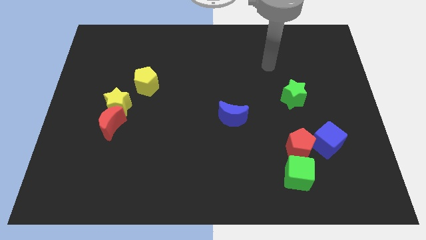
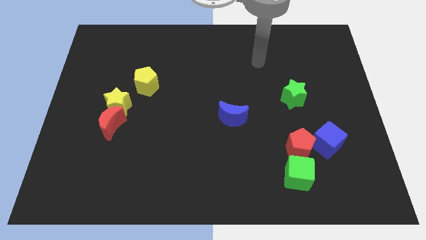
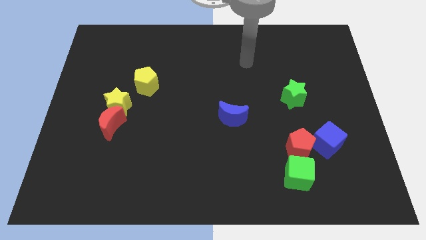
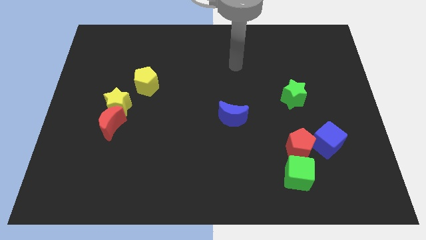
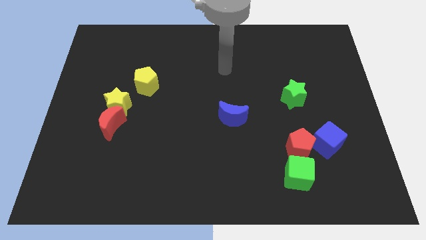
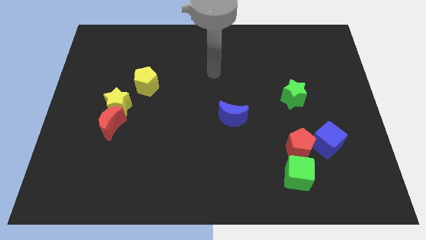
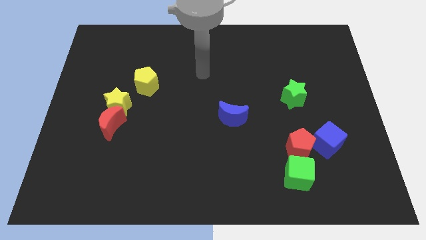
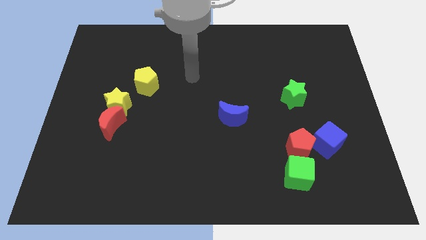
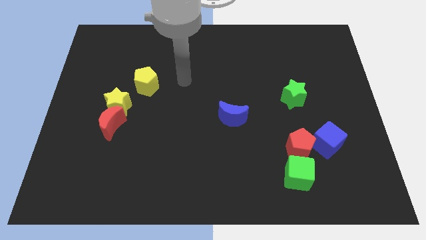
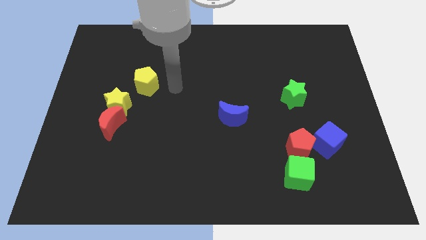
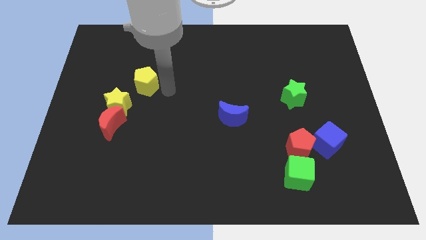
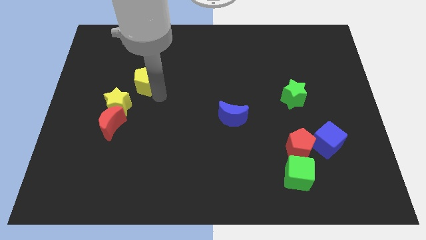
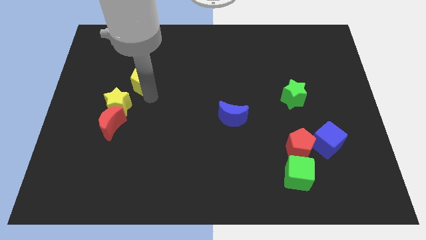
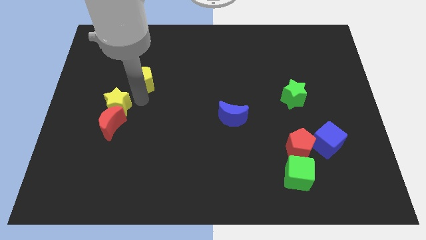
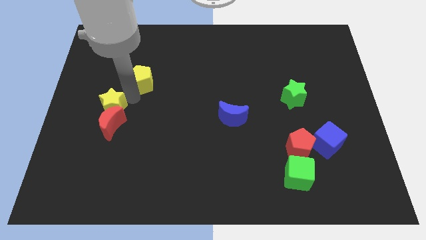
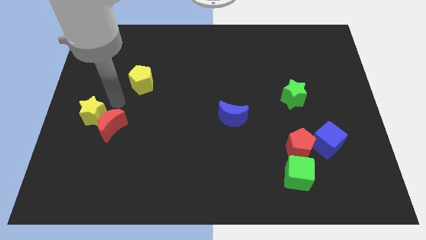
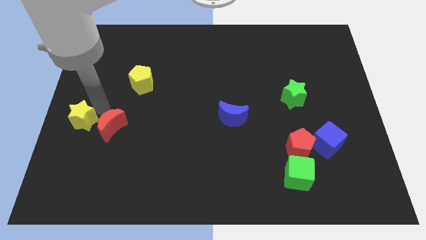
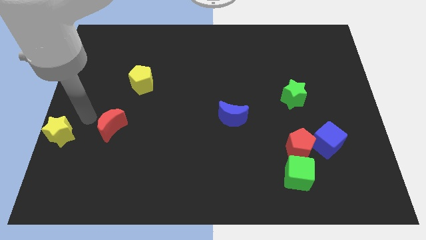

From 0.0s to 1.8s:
move the red moon away from the yellow star

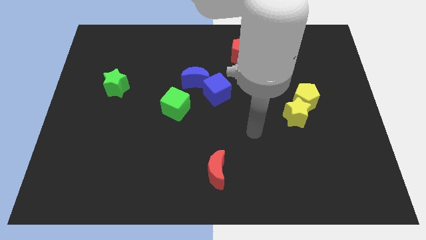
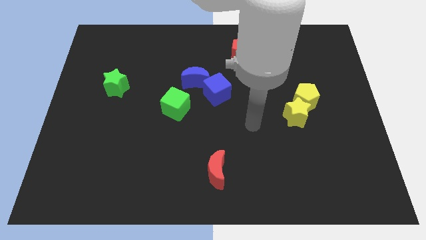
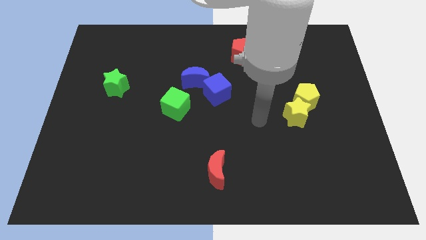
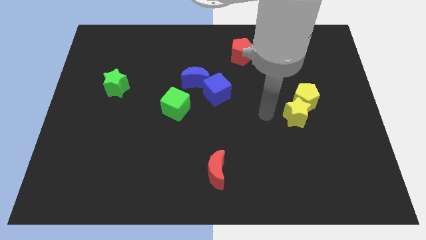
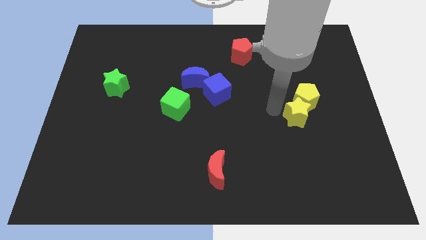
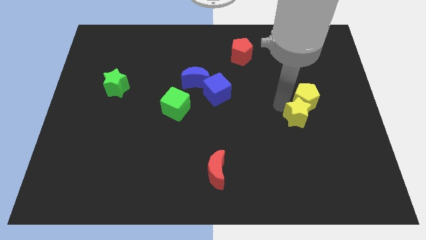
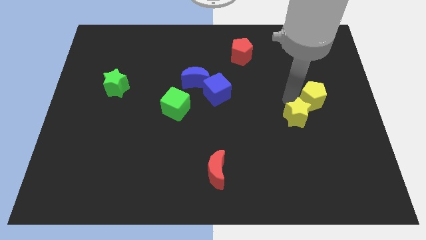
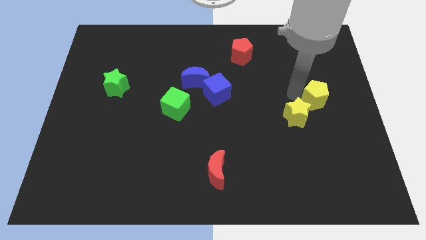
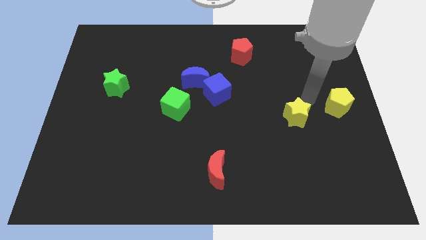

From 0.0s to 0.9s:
separate the yellow star from the yellow pentagon

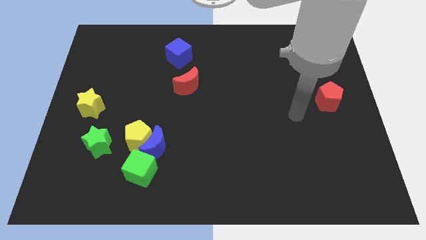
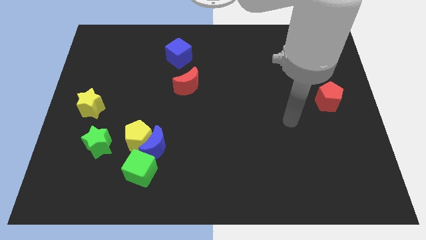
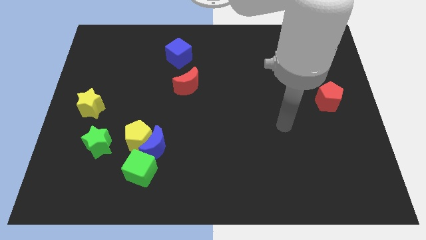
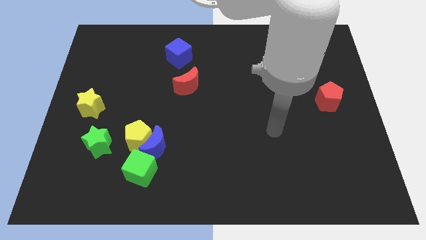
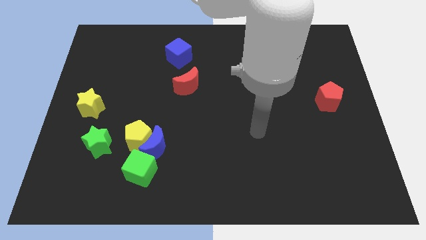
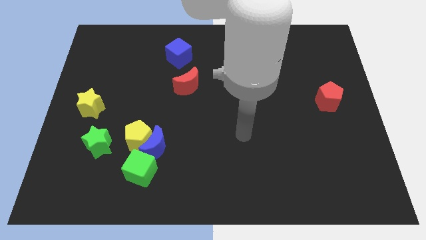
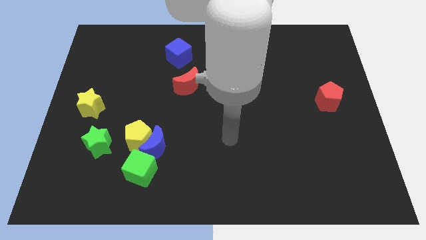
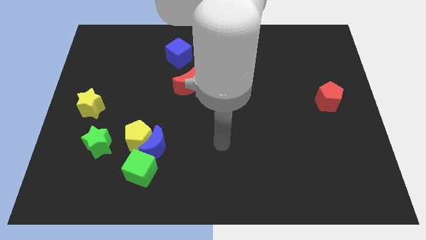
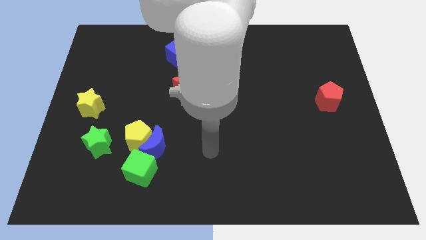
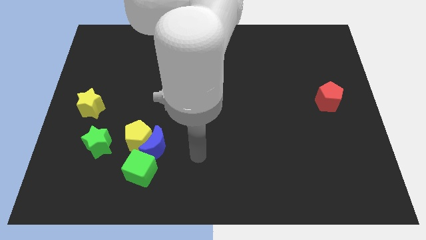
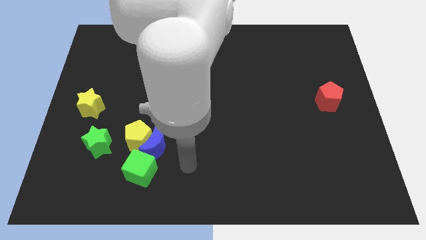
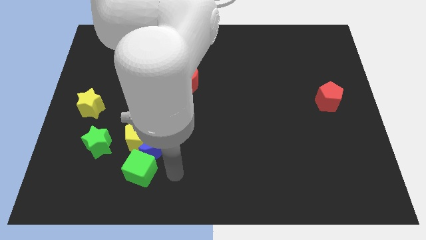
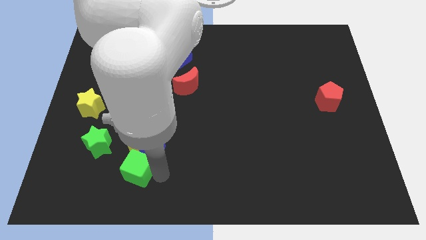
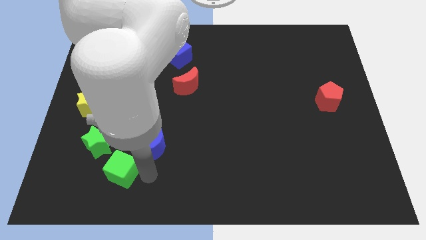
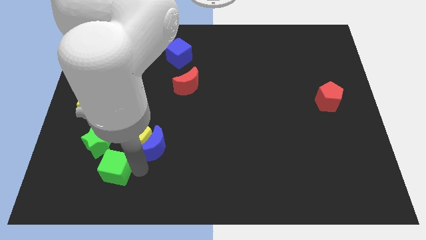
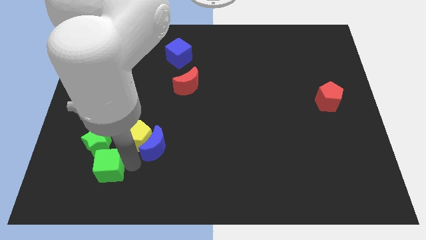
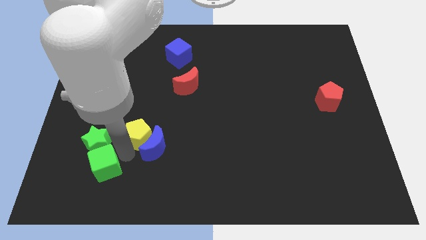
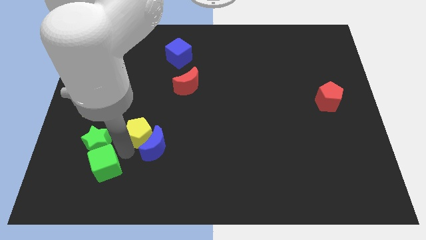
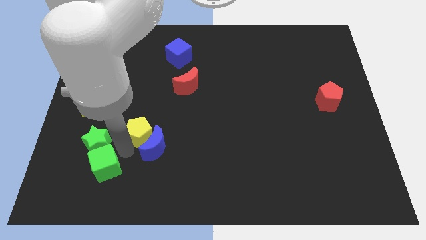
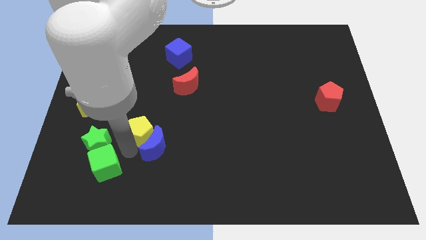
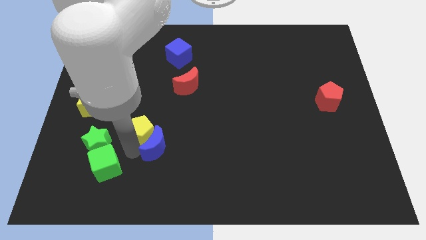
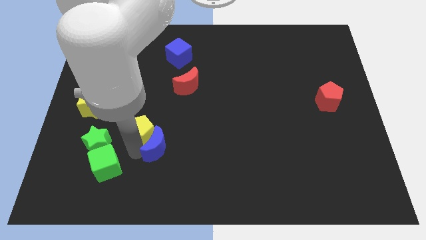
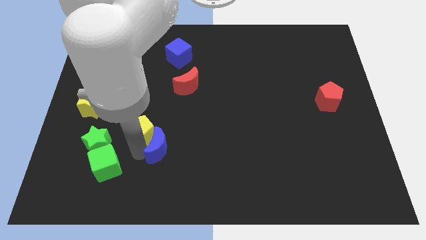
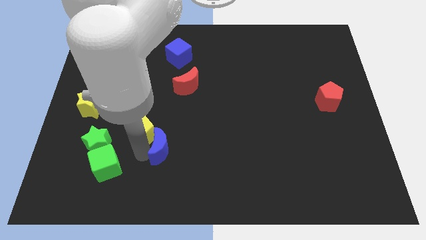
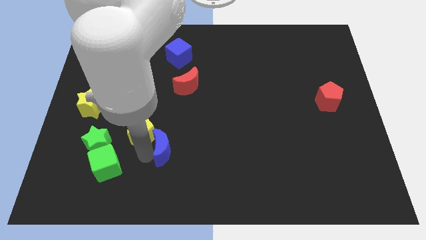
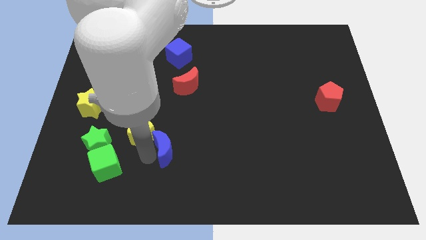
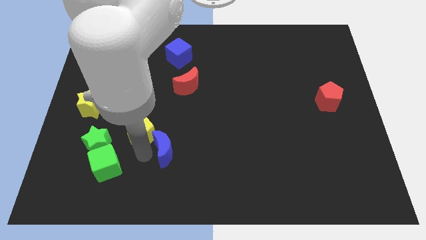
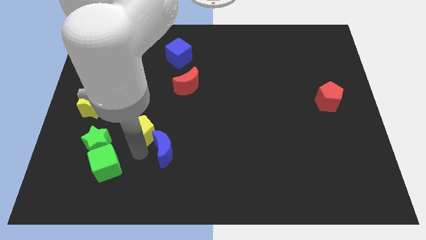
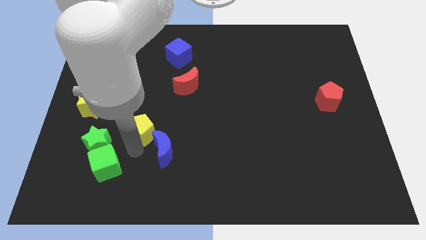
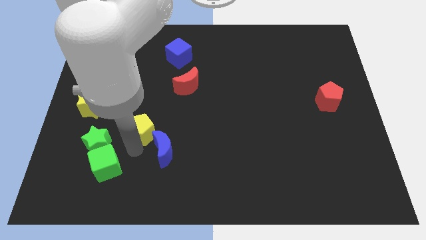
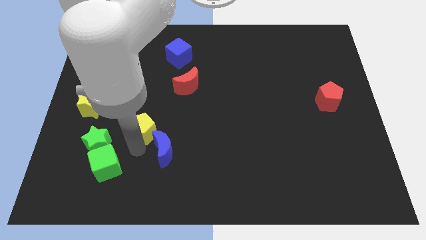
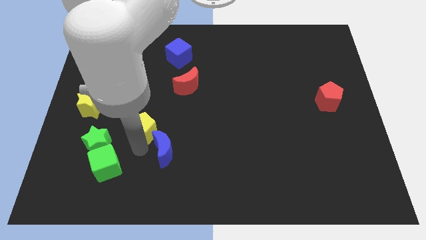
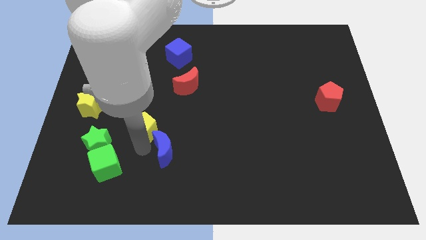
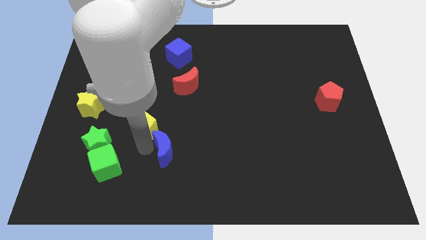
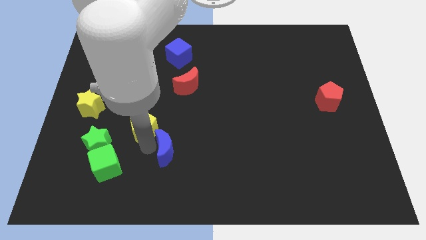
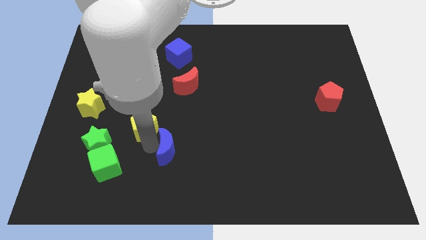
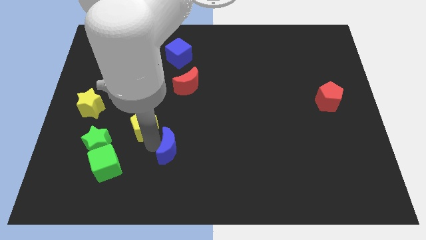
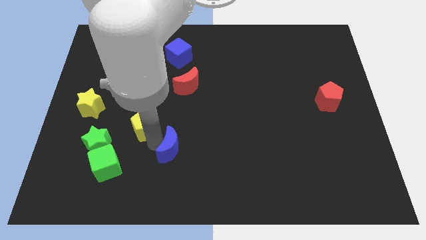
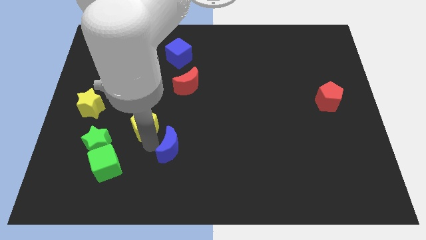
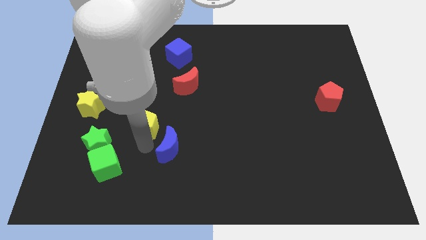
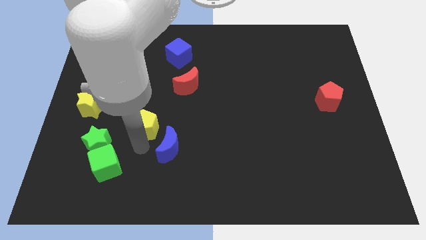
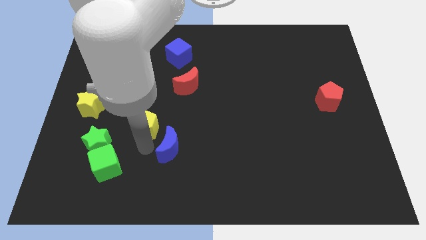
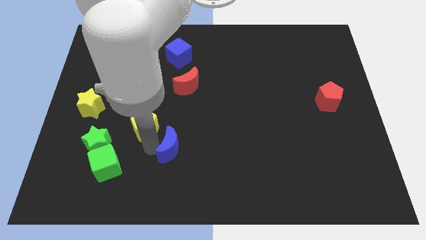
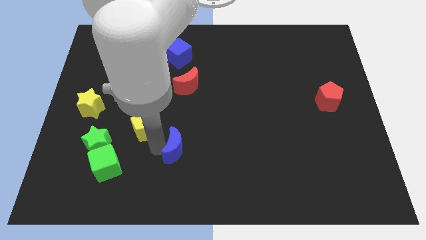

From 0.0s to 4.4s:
pull the blue moon apart from the yellow pentagon and green cube

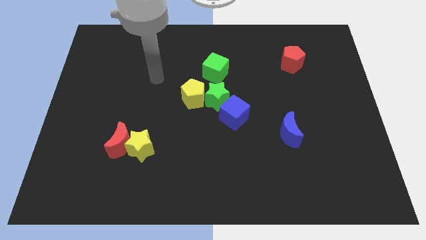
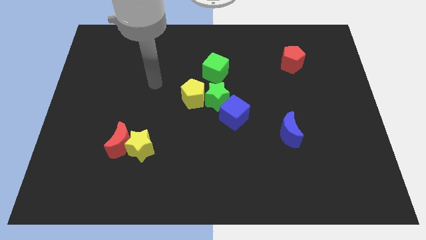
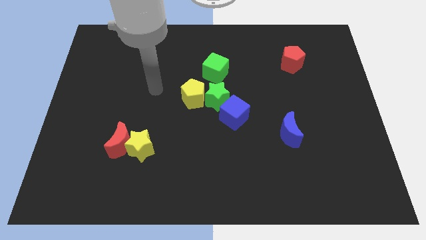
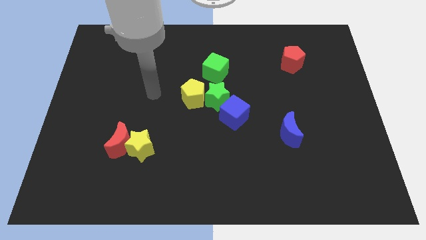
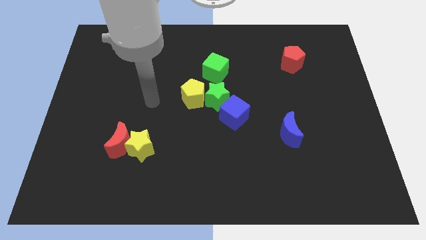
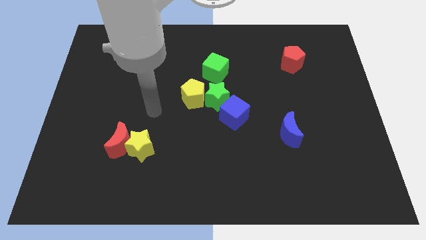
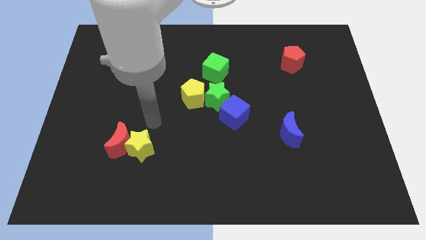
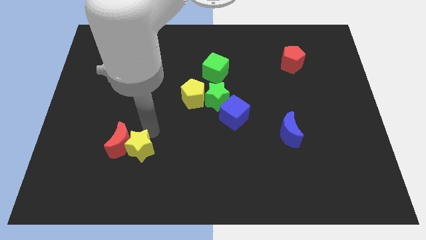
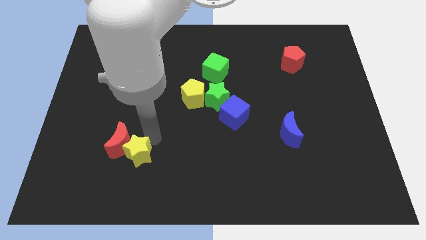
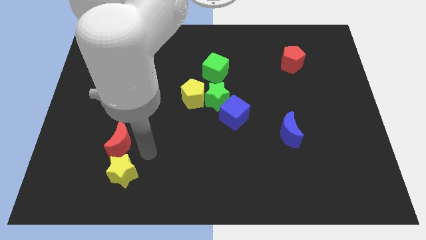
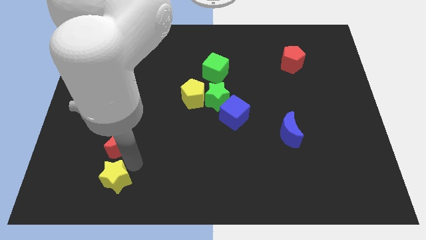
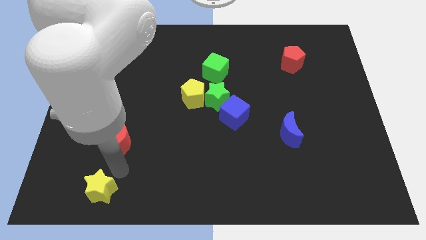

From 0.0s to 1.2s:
pull the red moon apart from the yellow star

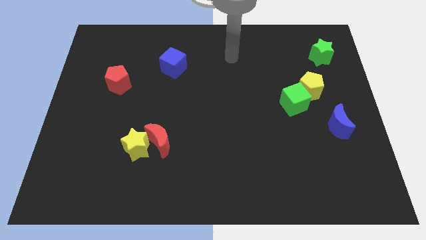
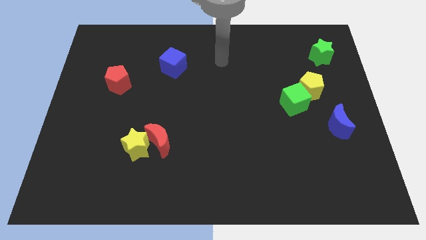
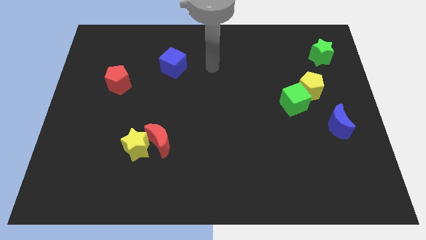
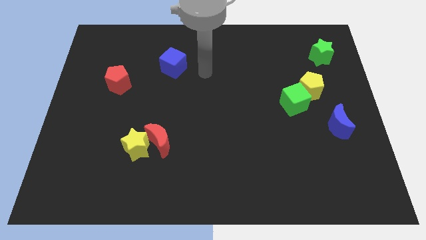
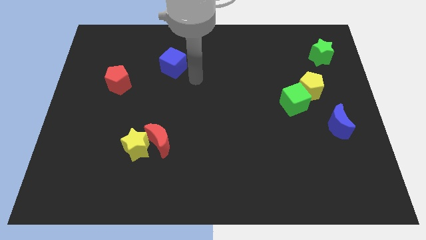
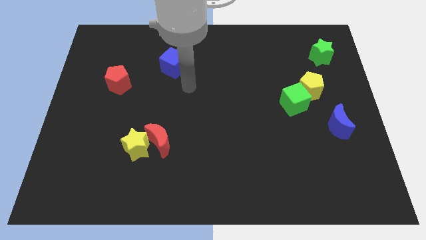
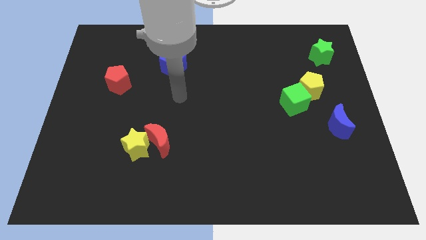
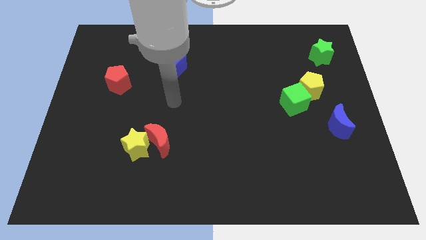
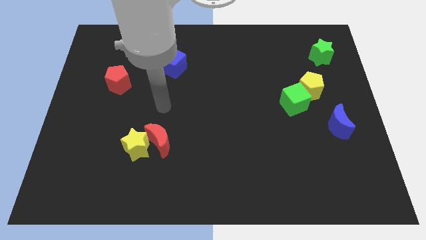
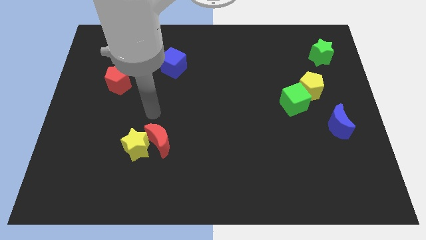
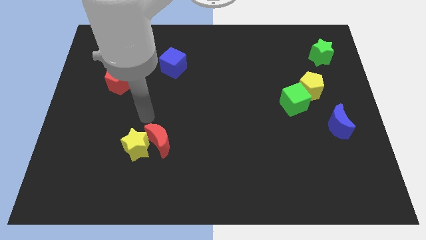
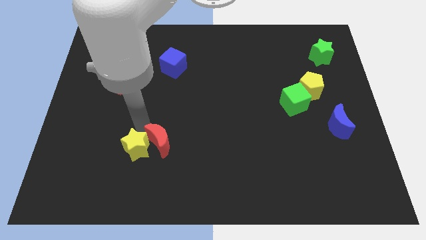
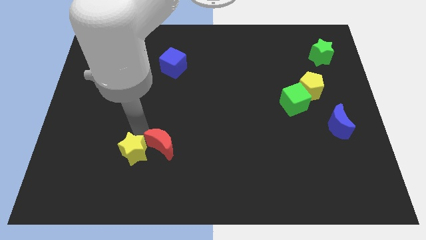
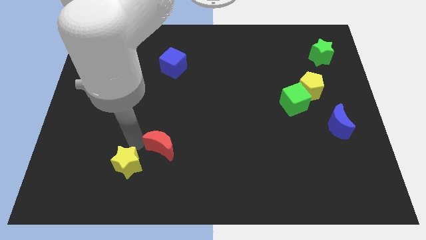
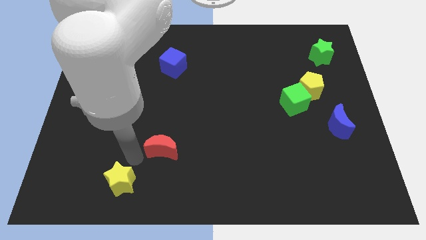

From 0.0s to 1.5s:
separate the red moon from the yellow star
